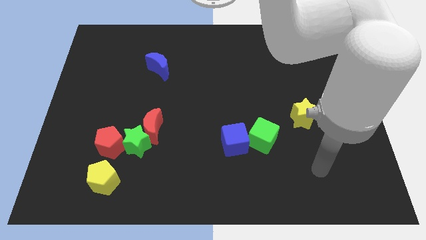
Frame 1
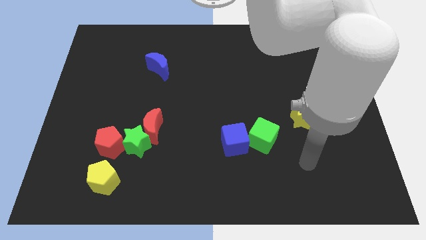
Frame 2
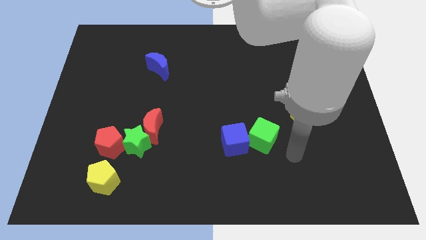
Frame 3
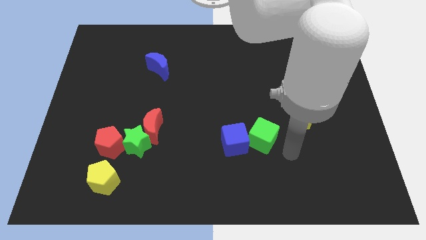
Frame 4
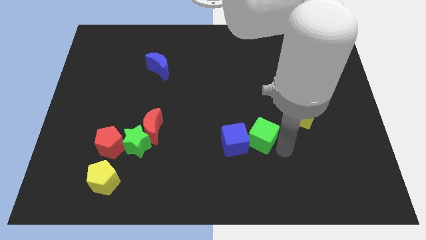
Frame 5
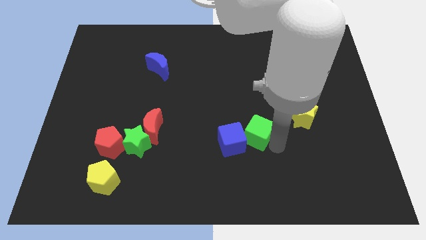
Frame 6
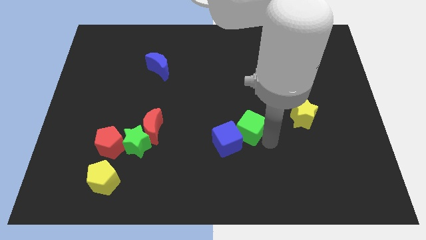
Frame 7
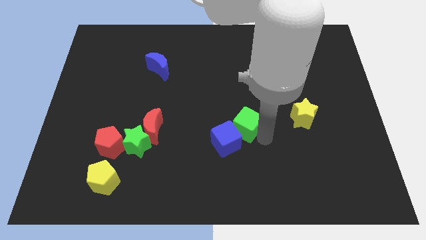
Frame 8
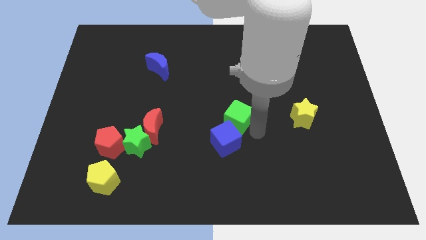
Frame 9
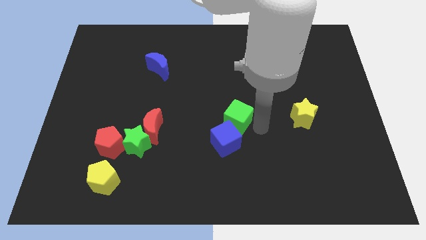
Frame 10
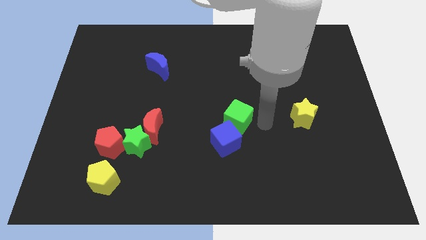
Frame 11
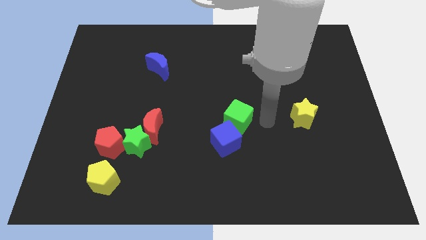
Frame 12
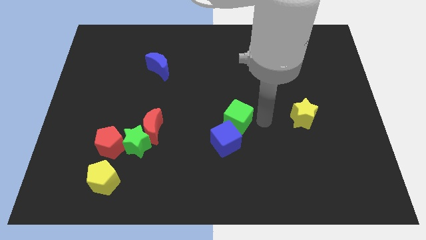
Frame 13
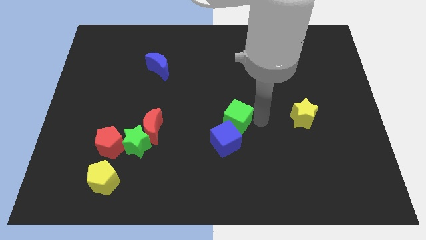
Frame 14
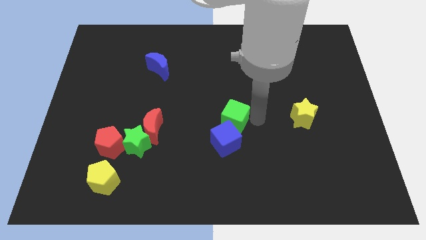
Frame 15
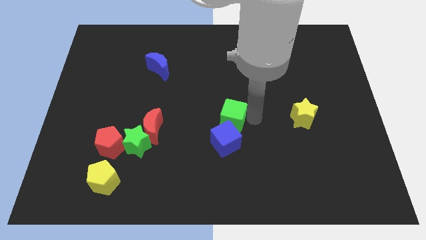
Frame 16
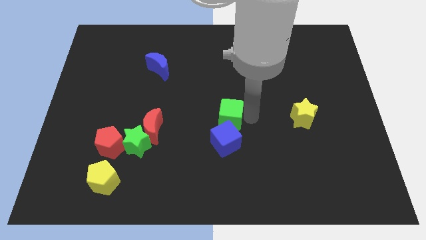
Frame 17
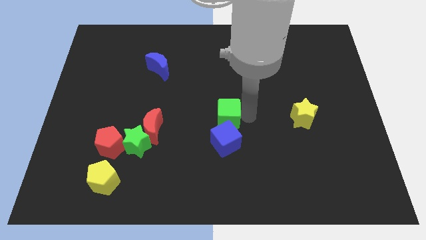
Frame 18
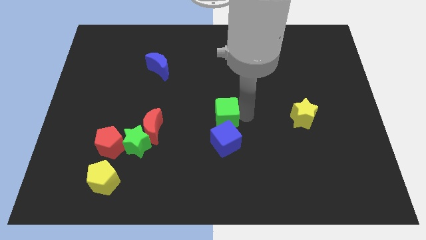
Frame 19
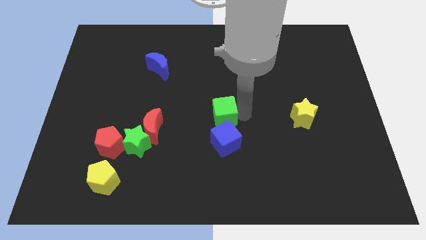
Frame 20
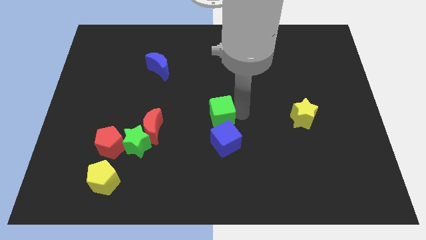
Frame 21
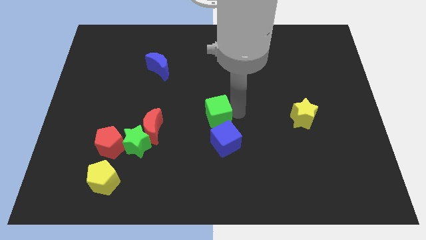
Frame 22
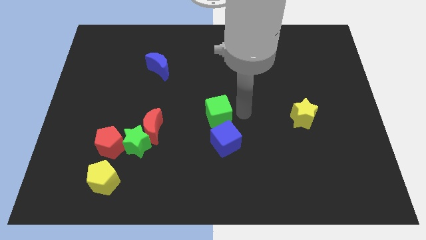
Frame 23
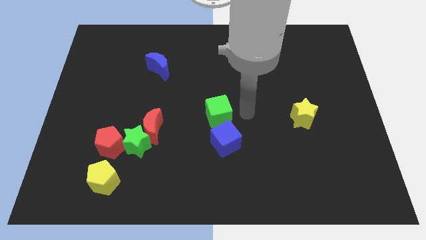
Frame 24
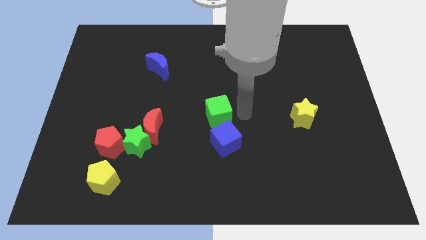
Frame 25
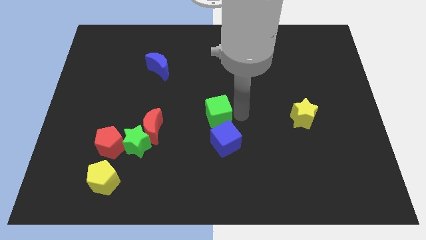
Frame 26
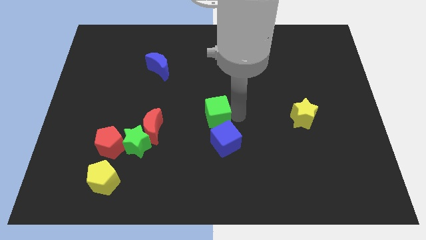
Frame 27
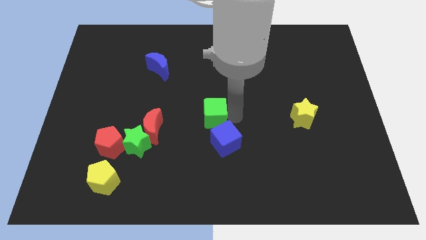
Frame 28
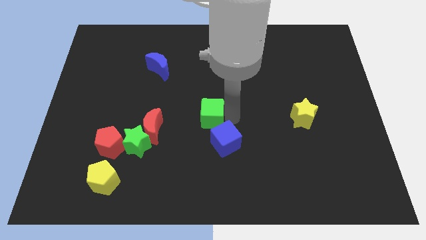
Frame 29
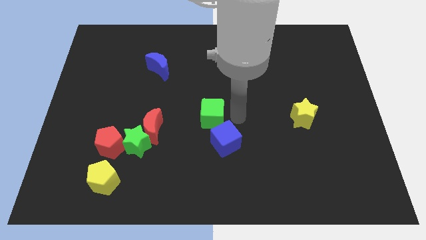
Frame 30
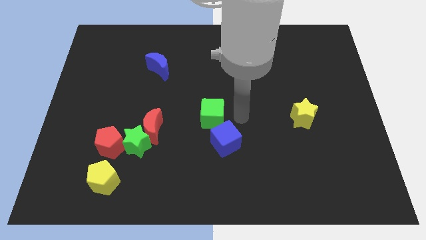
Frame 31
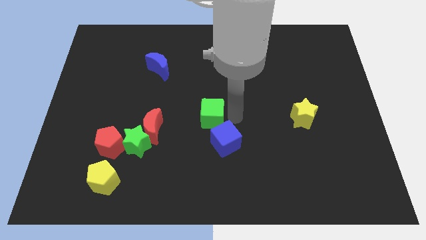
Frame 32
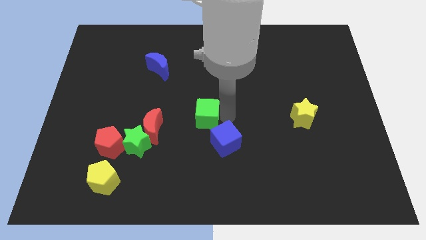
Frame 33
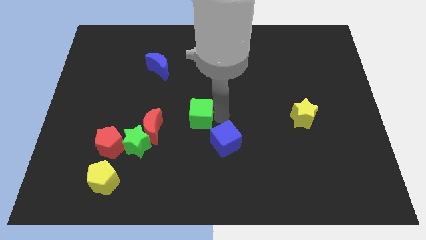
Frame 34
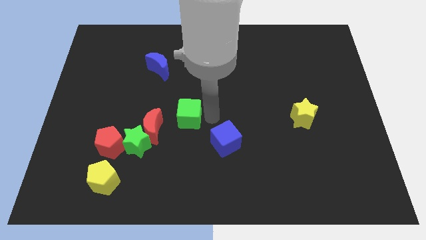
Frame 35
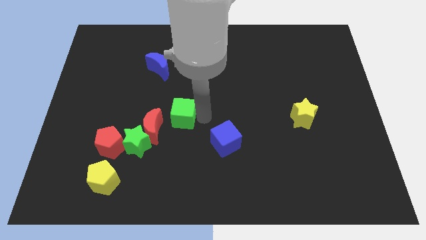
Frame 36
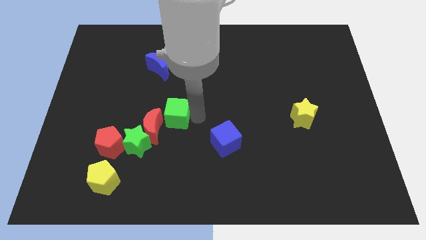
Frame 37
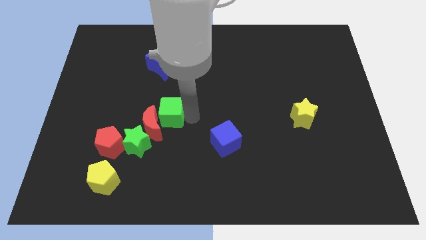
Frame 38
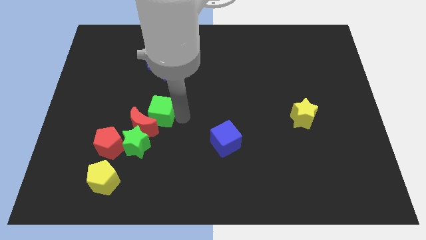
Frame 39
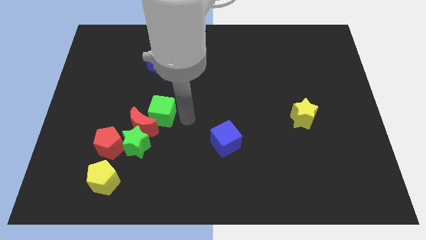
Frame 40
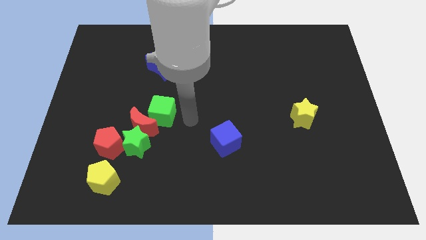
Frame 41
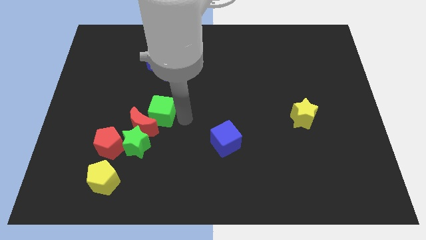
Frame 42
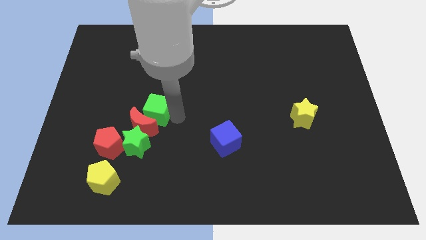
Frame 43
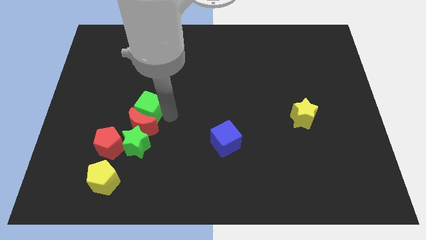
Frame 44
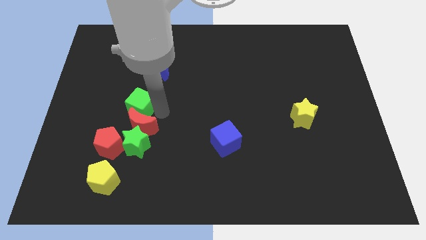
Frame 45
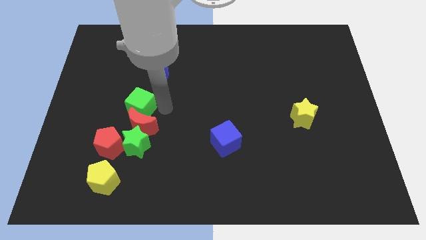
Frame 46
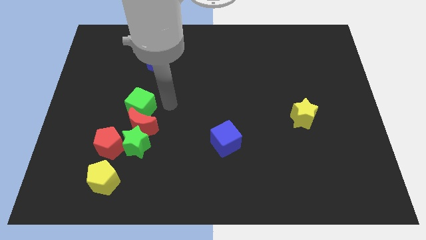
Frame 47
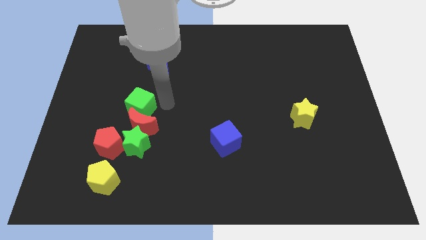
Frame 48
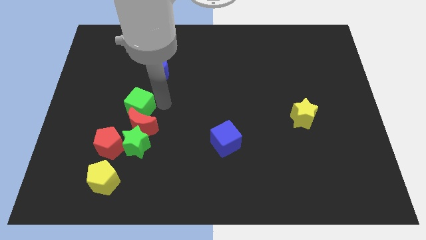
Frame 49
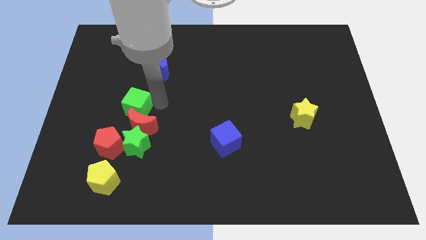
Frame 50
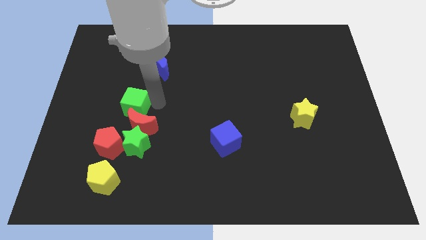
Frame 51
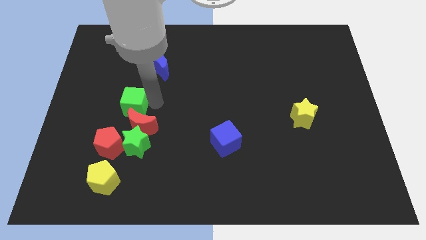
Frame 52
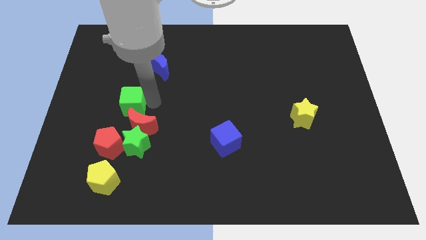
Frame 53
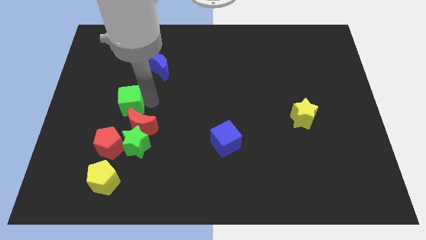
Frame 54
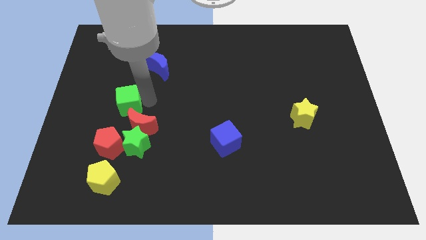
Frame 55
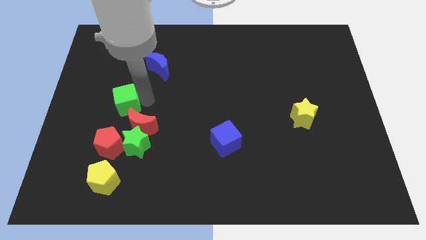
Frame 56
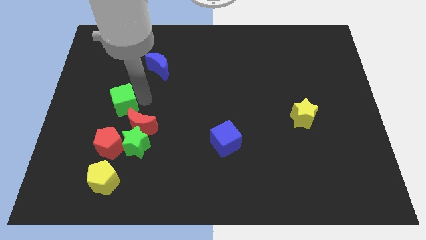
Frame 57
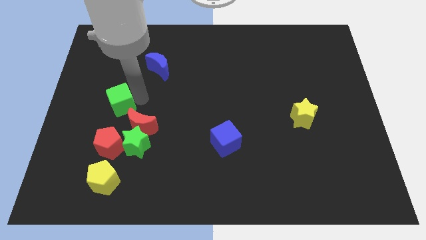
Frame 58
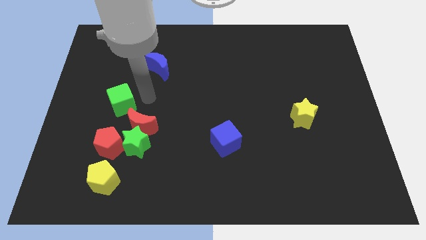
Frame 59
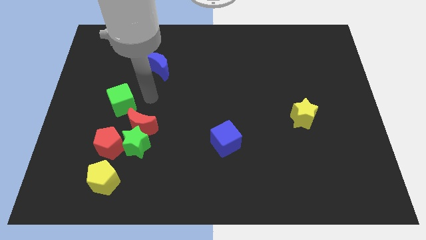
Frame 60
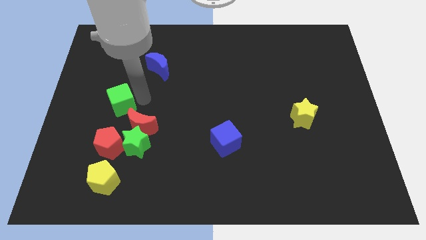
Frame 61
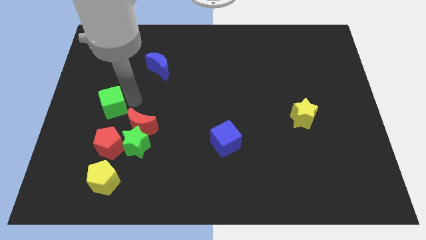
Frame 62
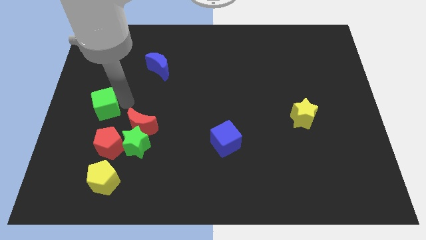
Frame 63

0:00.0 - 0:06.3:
push the green cube to the left side

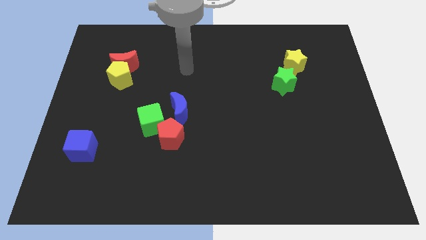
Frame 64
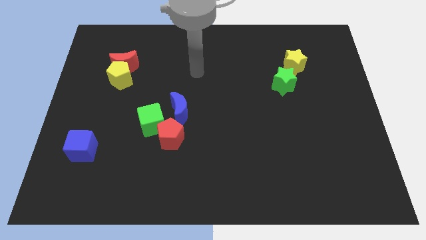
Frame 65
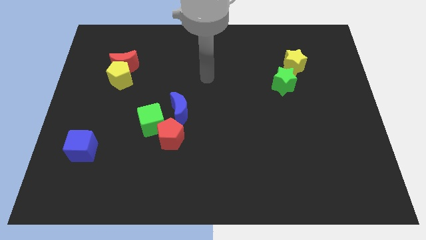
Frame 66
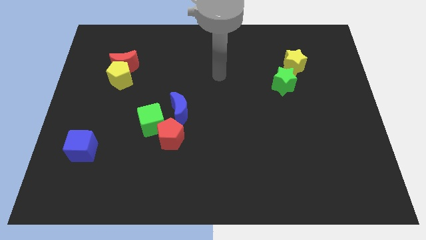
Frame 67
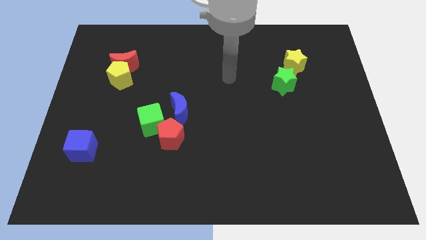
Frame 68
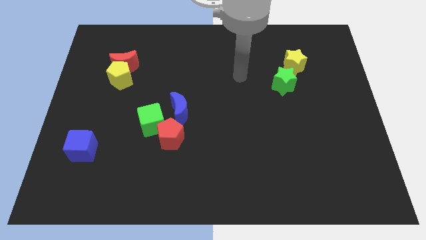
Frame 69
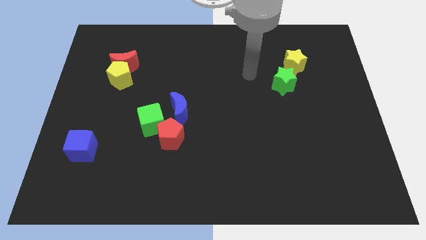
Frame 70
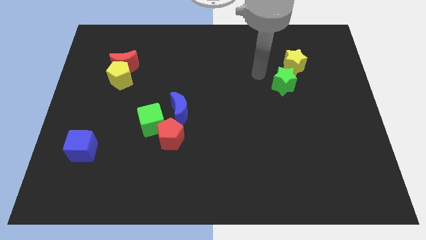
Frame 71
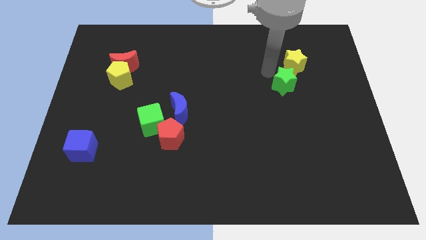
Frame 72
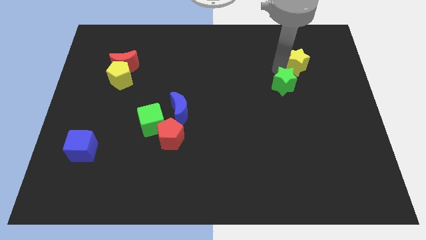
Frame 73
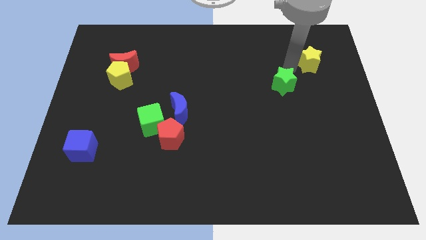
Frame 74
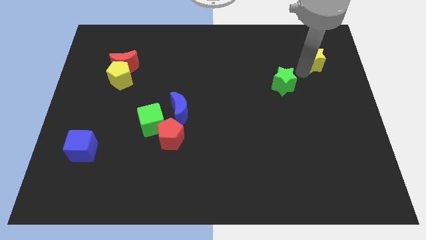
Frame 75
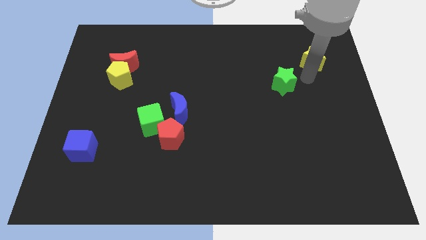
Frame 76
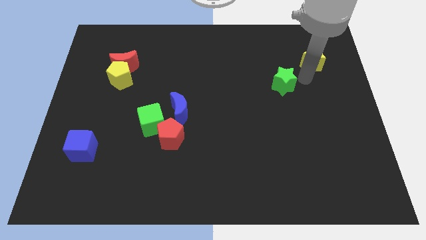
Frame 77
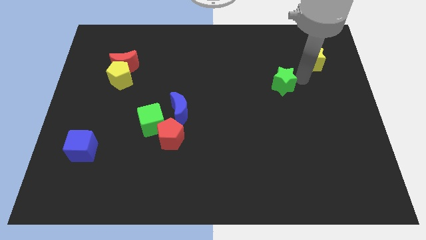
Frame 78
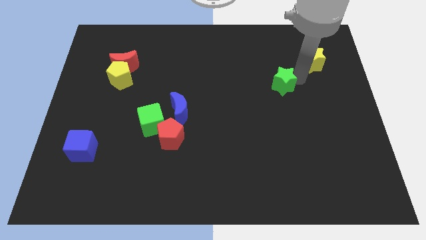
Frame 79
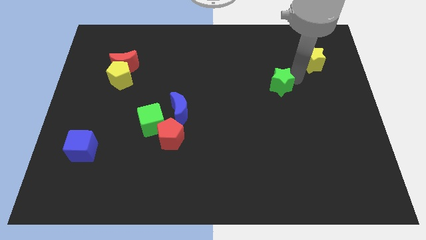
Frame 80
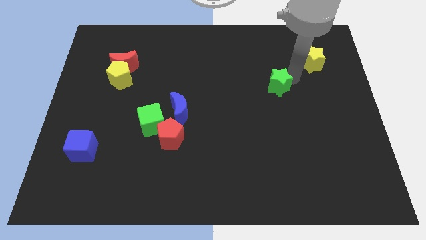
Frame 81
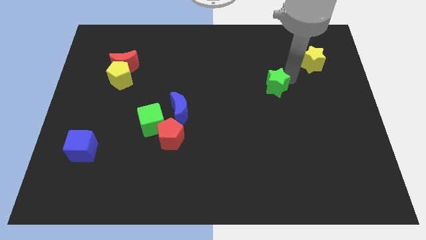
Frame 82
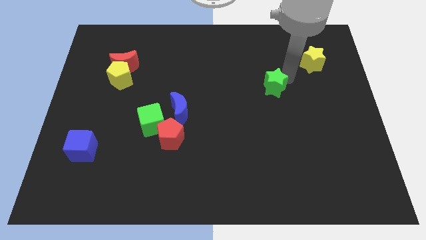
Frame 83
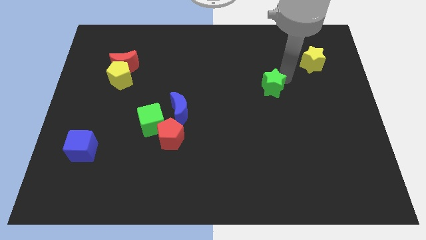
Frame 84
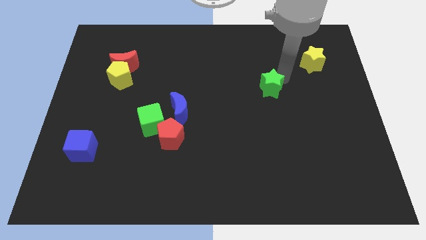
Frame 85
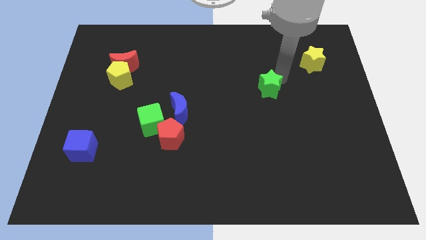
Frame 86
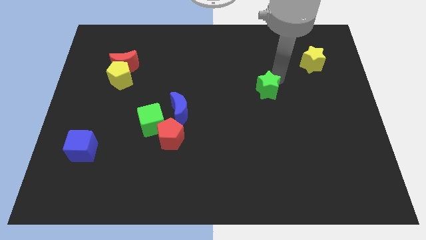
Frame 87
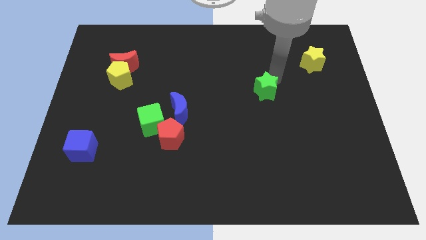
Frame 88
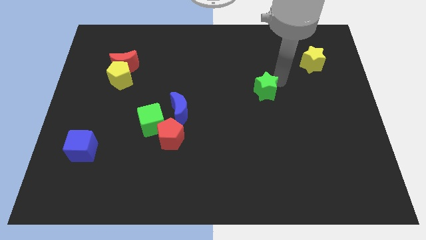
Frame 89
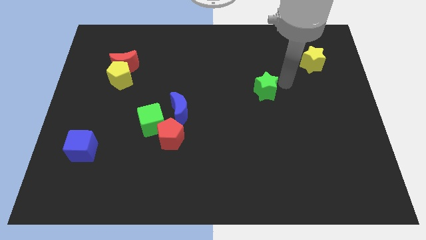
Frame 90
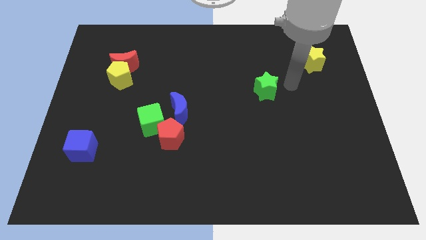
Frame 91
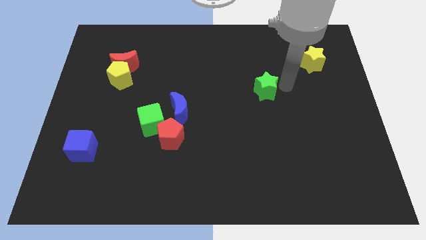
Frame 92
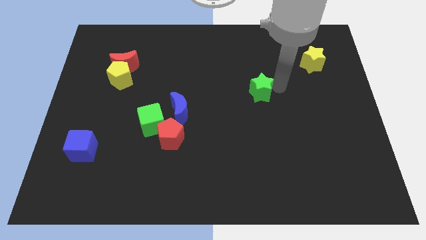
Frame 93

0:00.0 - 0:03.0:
move the green star to the center of the board
